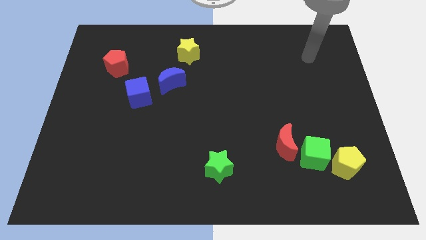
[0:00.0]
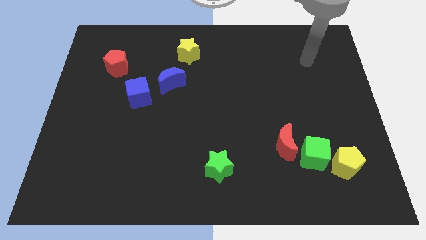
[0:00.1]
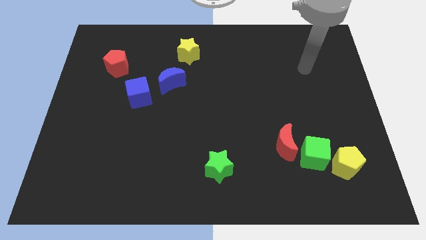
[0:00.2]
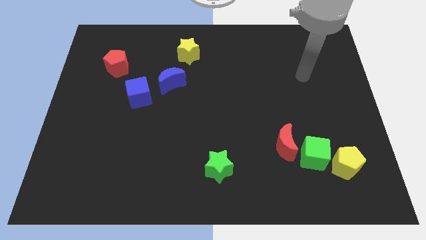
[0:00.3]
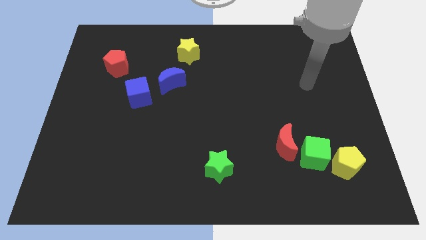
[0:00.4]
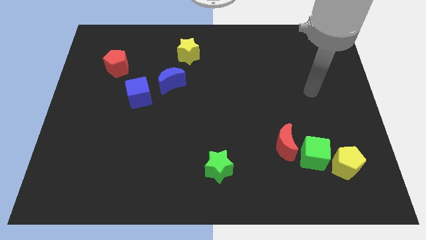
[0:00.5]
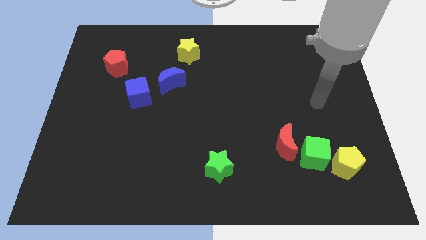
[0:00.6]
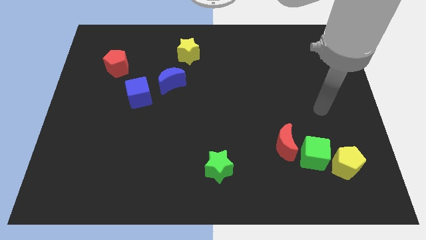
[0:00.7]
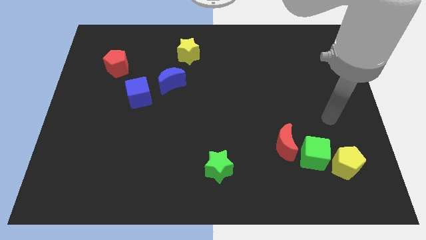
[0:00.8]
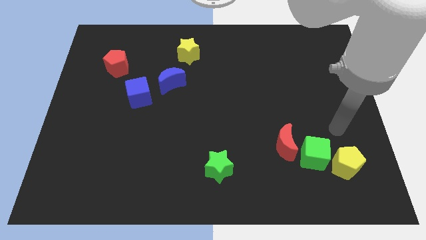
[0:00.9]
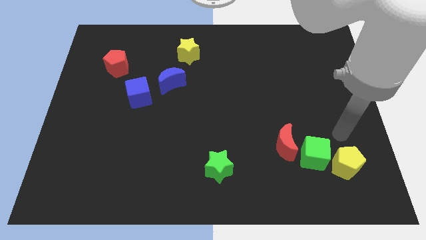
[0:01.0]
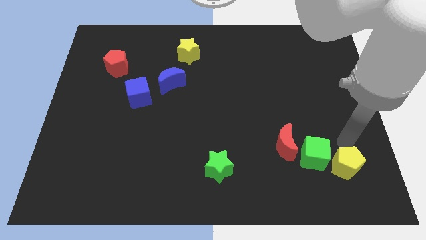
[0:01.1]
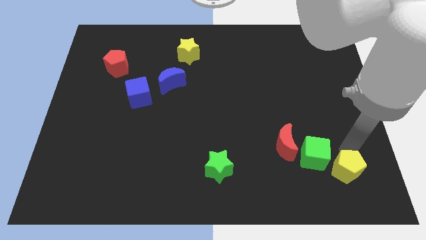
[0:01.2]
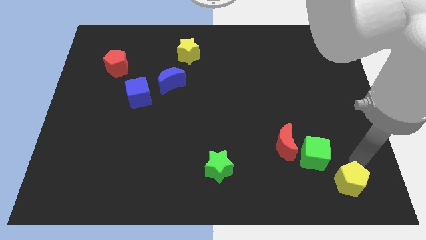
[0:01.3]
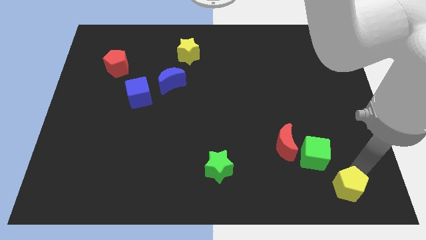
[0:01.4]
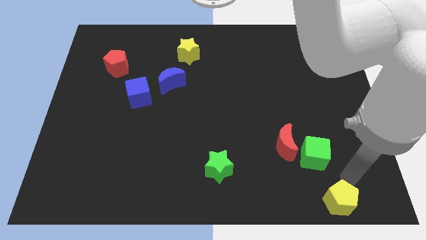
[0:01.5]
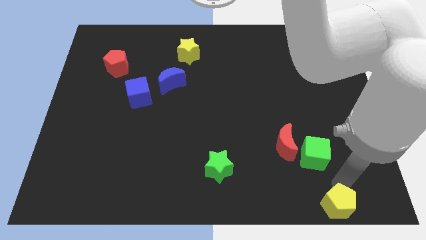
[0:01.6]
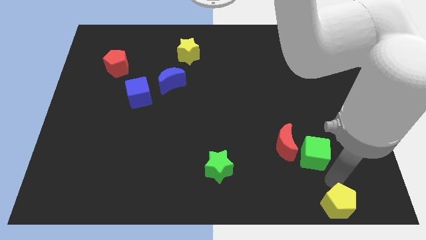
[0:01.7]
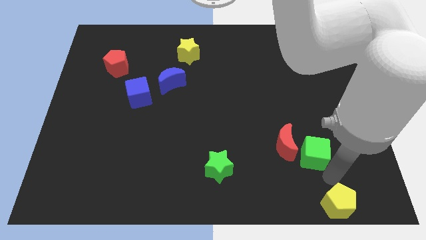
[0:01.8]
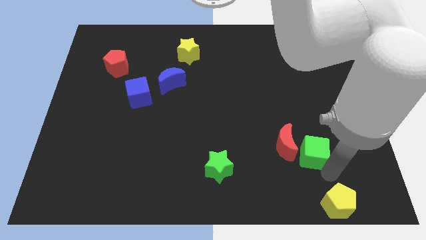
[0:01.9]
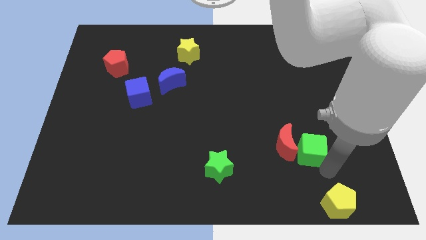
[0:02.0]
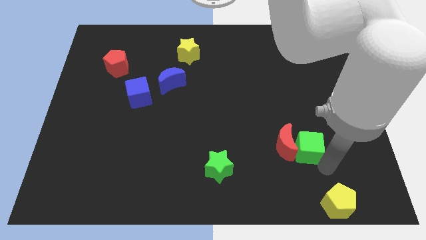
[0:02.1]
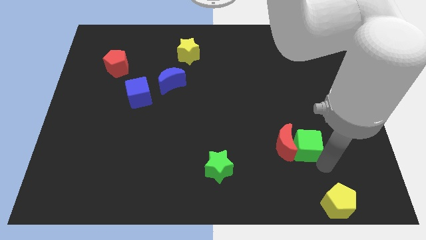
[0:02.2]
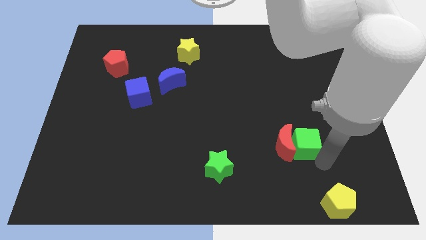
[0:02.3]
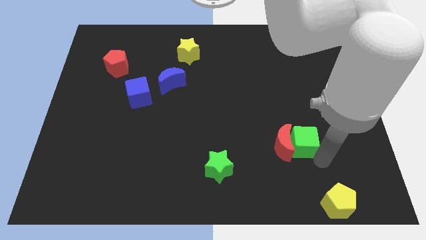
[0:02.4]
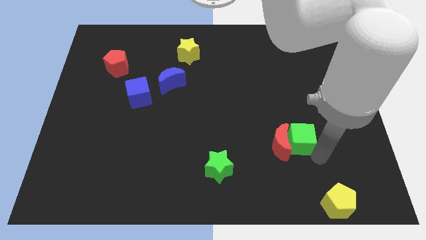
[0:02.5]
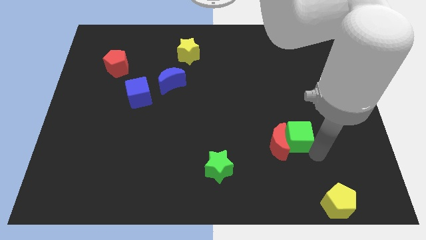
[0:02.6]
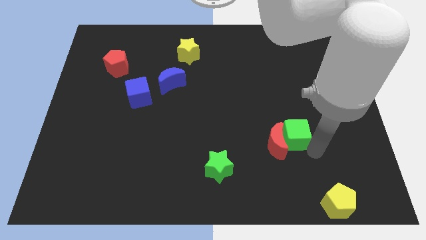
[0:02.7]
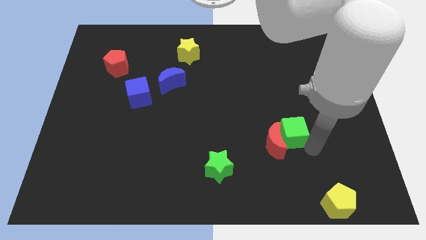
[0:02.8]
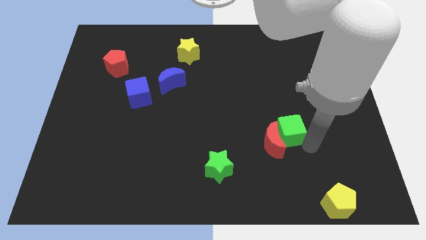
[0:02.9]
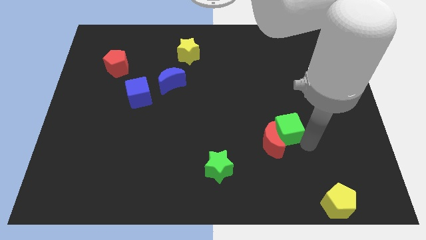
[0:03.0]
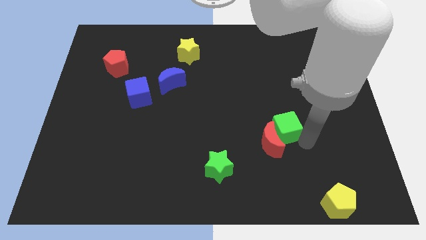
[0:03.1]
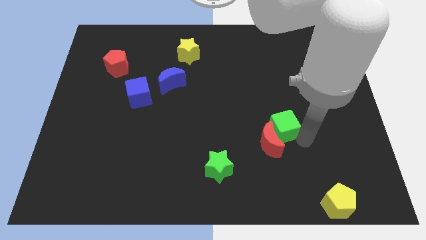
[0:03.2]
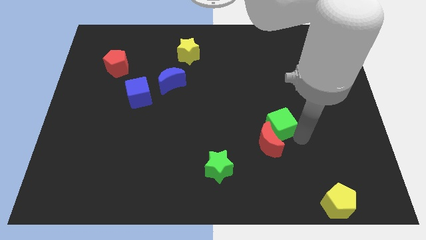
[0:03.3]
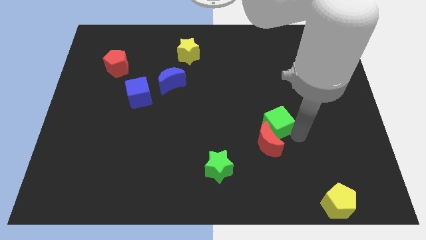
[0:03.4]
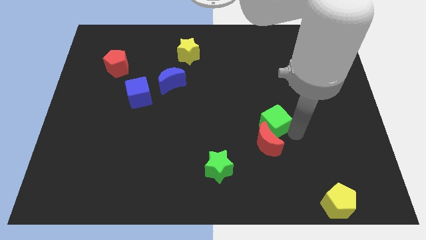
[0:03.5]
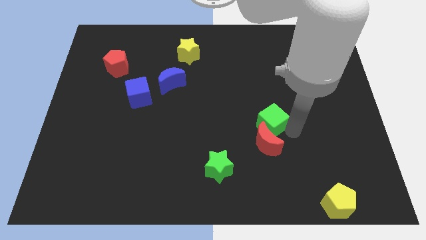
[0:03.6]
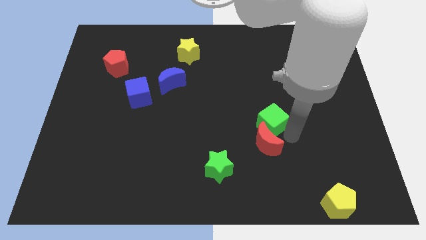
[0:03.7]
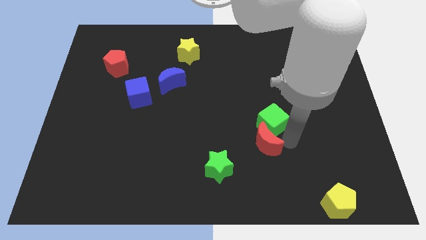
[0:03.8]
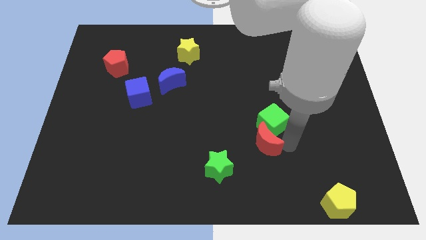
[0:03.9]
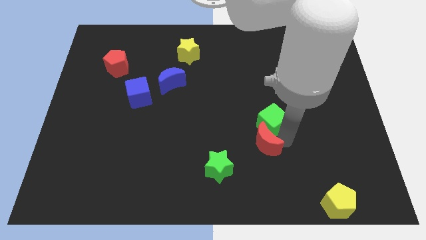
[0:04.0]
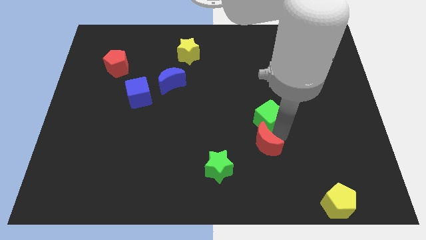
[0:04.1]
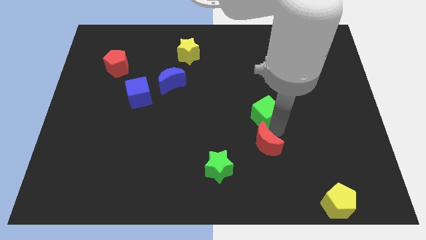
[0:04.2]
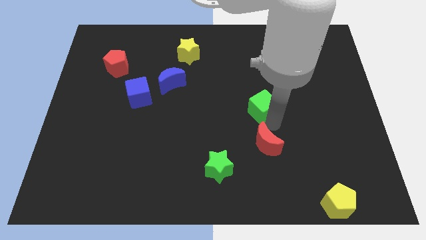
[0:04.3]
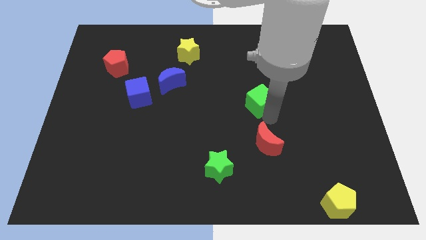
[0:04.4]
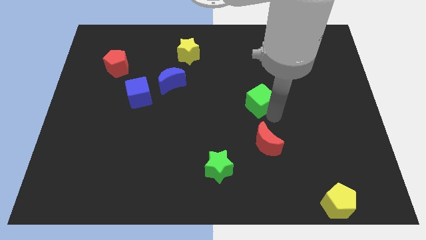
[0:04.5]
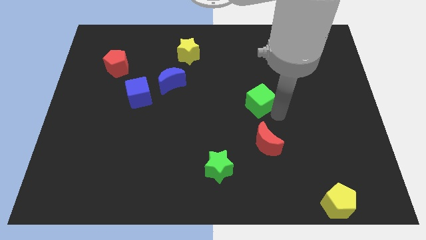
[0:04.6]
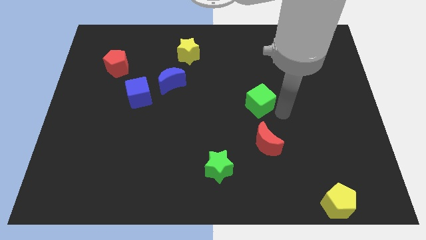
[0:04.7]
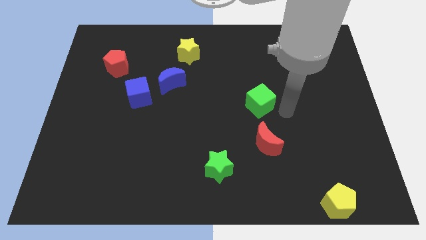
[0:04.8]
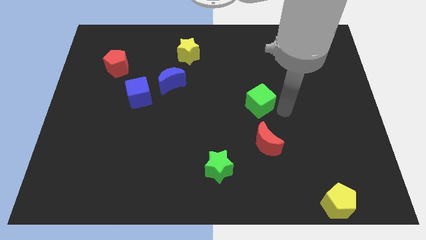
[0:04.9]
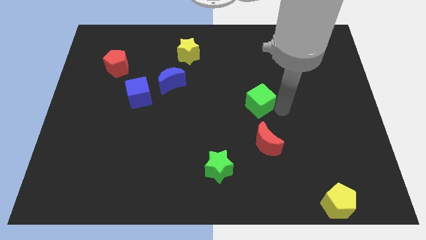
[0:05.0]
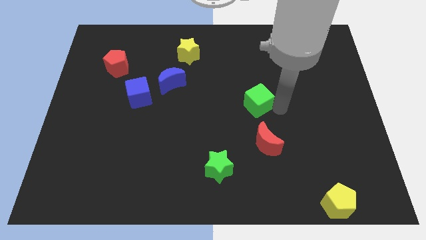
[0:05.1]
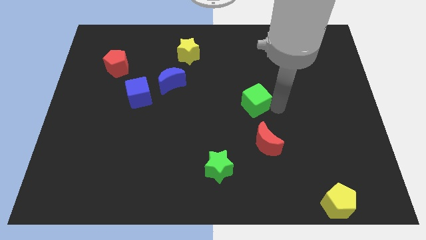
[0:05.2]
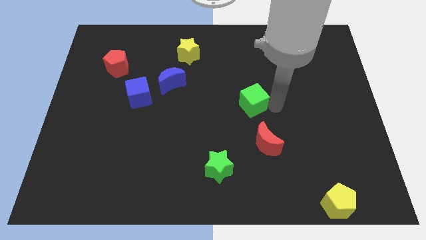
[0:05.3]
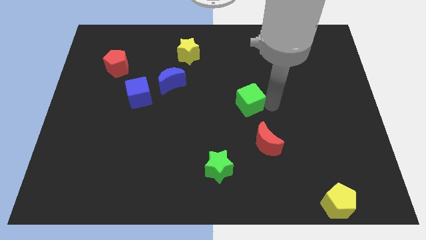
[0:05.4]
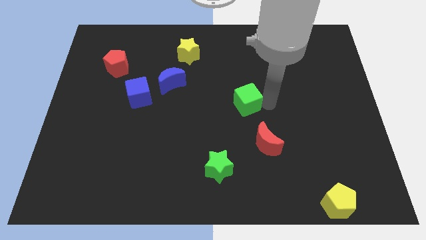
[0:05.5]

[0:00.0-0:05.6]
push the green cube up and then to the left

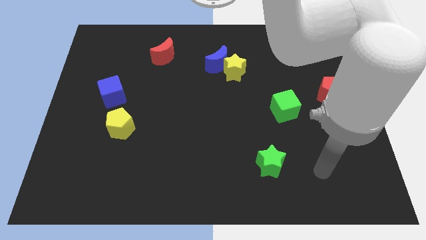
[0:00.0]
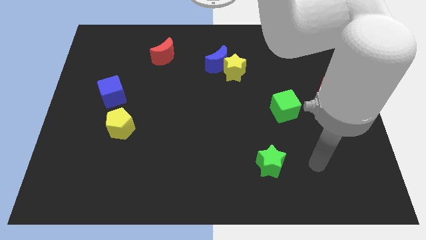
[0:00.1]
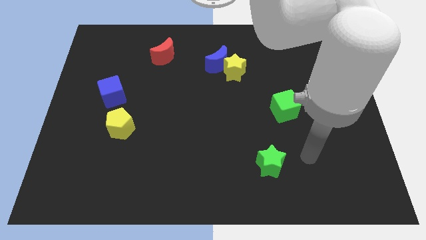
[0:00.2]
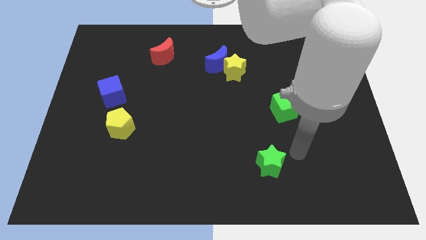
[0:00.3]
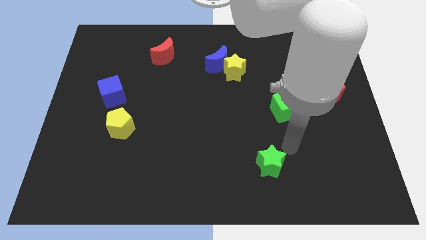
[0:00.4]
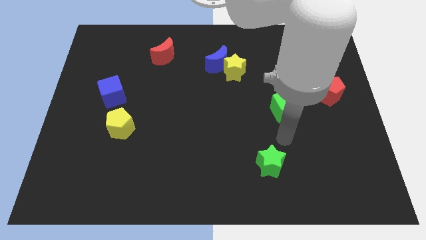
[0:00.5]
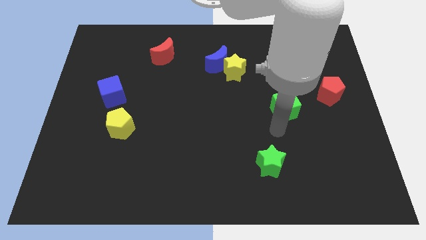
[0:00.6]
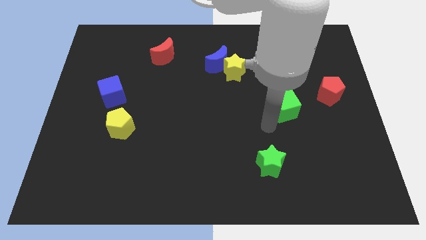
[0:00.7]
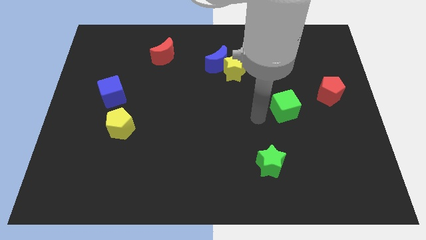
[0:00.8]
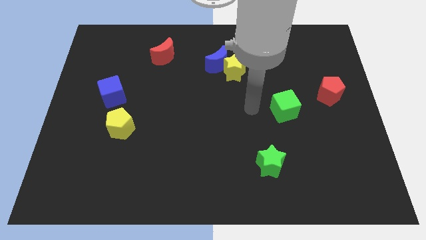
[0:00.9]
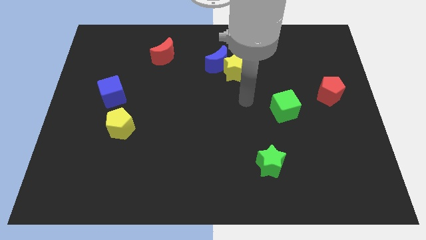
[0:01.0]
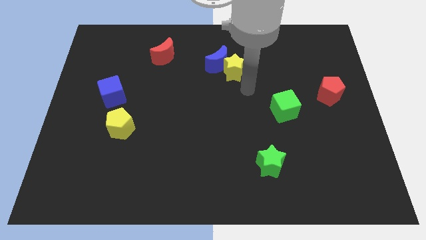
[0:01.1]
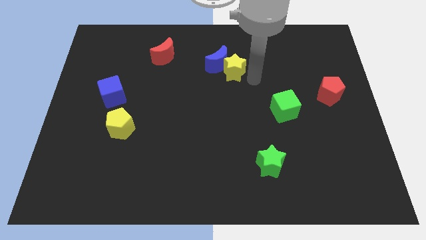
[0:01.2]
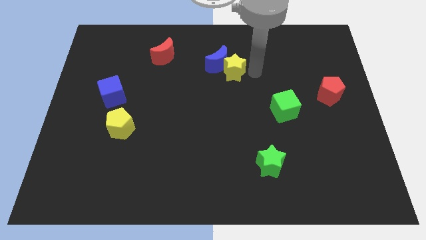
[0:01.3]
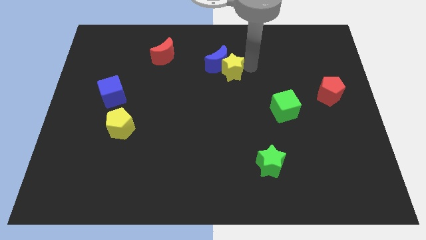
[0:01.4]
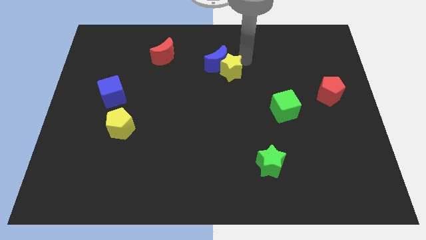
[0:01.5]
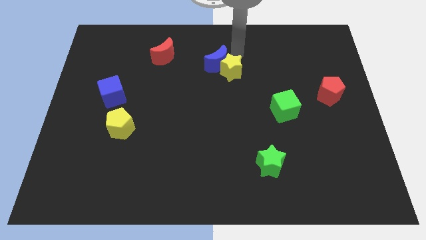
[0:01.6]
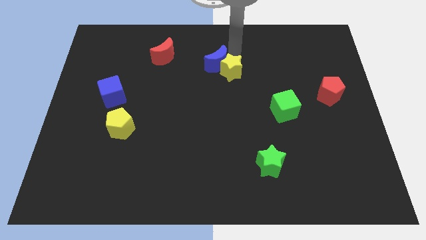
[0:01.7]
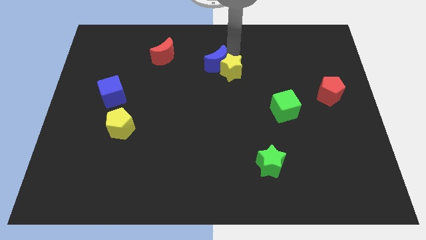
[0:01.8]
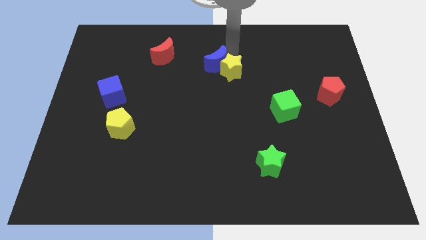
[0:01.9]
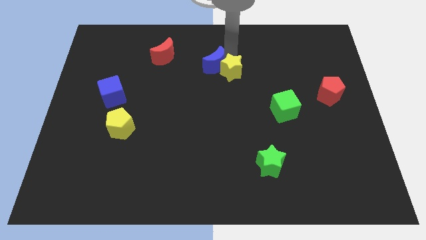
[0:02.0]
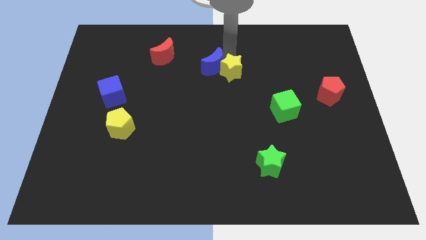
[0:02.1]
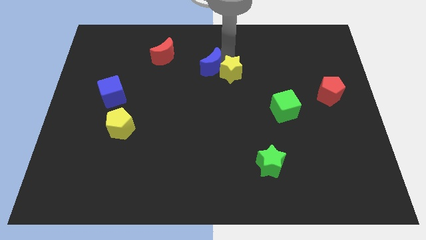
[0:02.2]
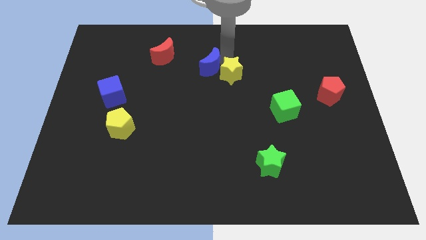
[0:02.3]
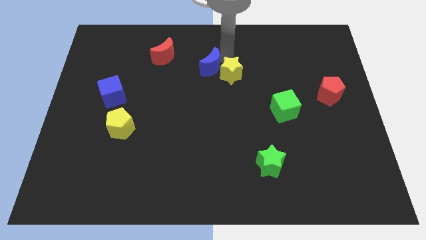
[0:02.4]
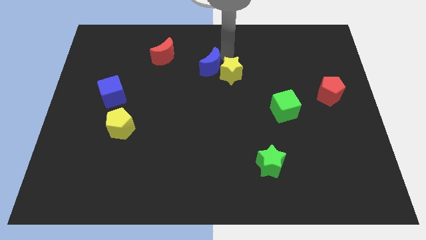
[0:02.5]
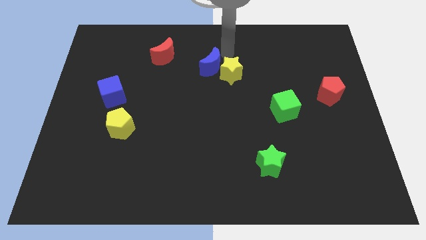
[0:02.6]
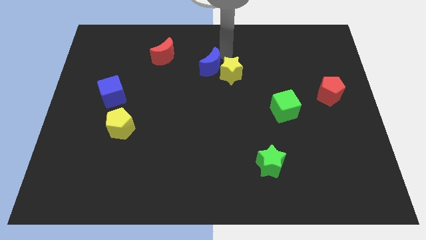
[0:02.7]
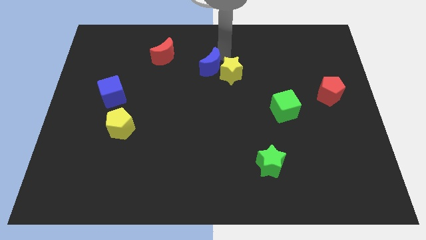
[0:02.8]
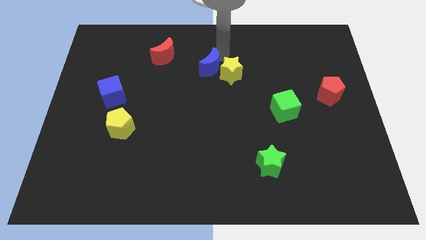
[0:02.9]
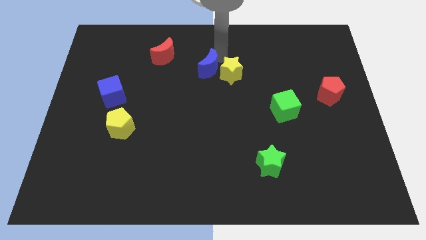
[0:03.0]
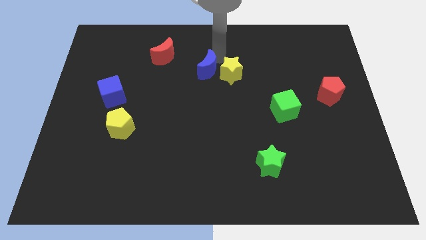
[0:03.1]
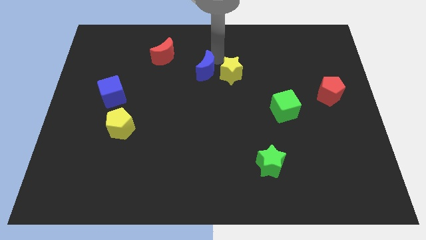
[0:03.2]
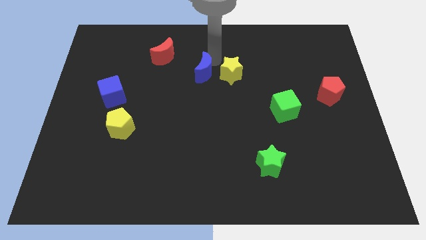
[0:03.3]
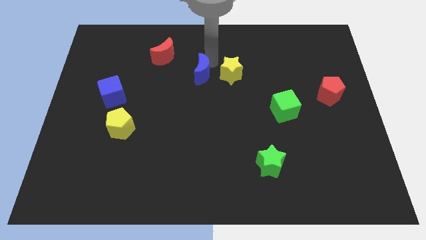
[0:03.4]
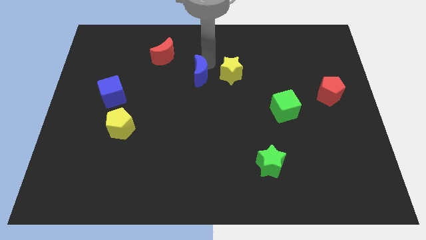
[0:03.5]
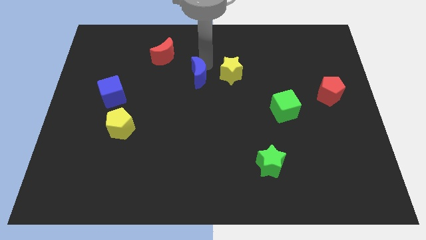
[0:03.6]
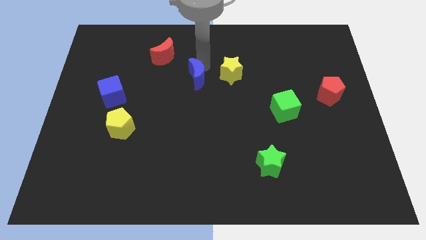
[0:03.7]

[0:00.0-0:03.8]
move the blue moon somewhat down and left diagonally
